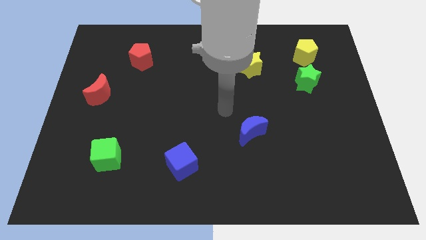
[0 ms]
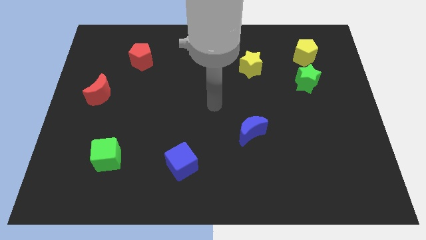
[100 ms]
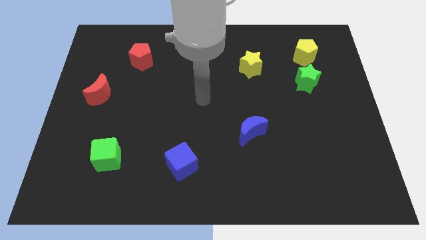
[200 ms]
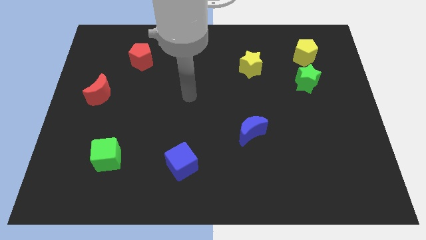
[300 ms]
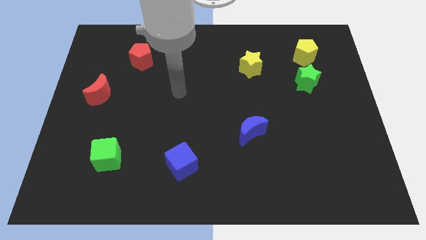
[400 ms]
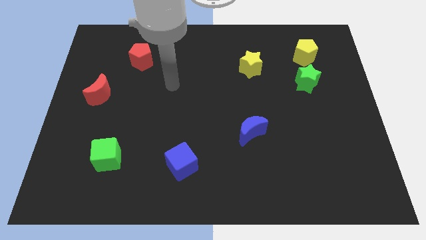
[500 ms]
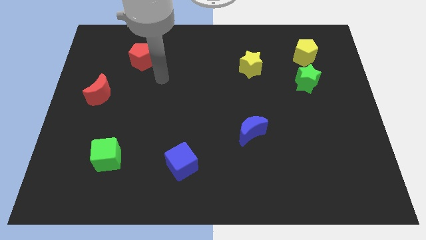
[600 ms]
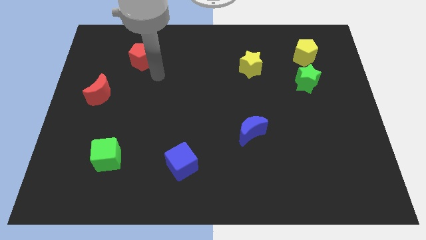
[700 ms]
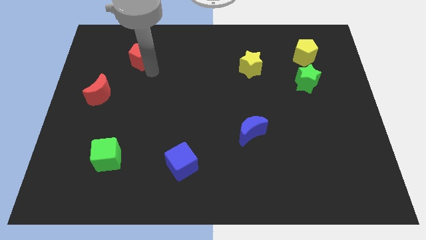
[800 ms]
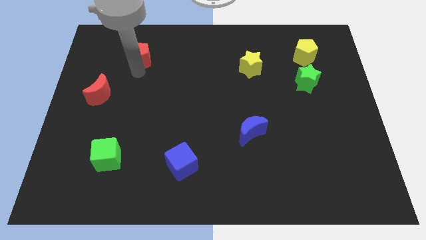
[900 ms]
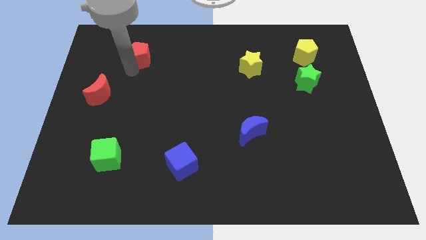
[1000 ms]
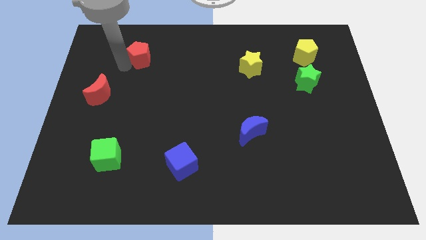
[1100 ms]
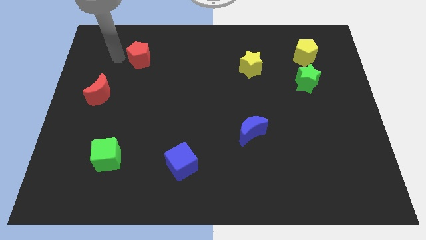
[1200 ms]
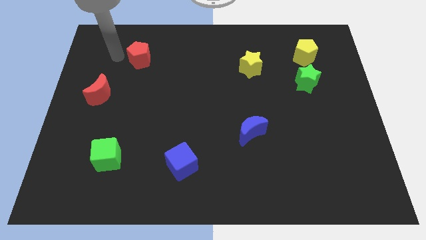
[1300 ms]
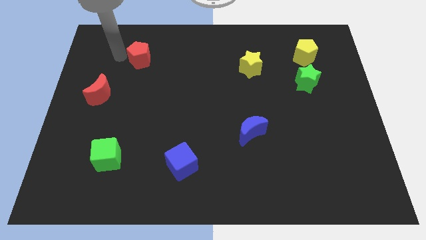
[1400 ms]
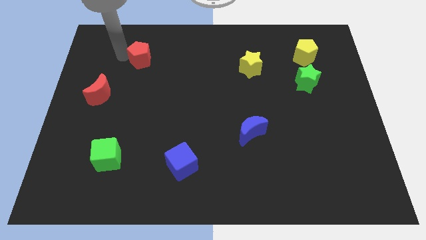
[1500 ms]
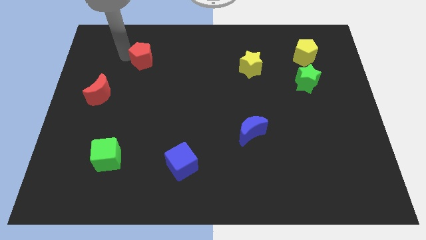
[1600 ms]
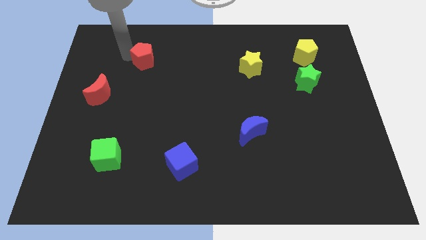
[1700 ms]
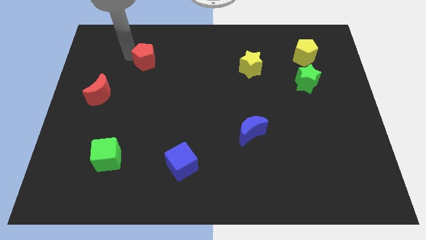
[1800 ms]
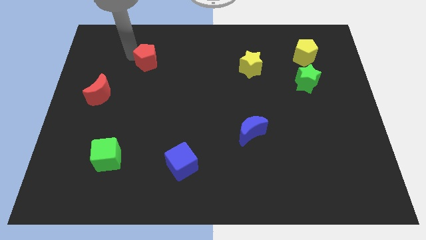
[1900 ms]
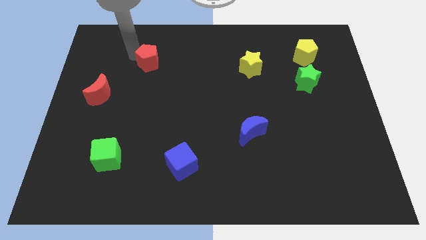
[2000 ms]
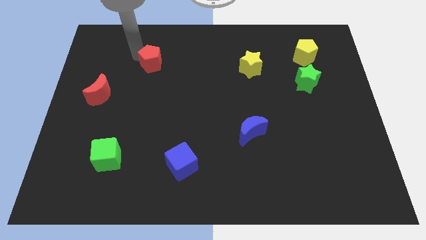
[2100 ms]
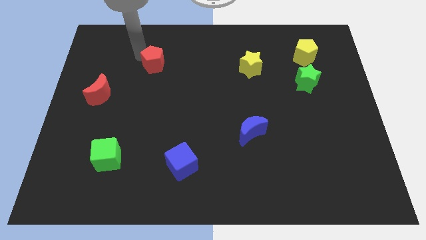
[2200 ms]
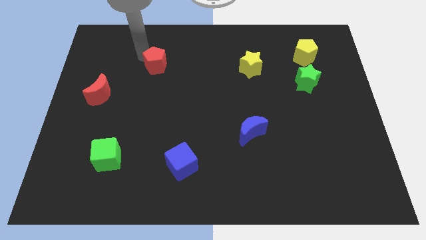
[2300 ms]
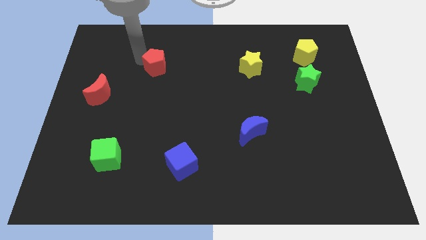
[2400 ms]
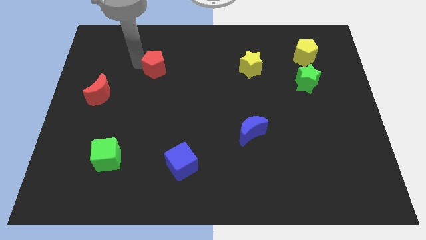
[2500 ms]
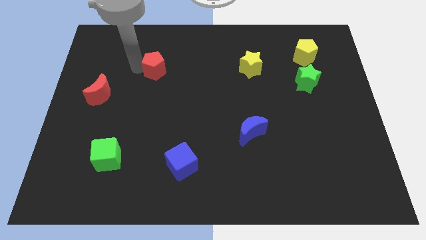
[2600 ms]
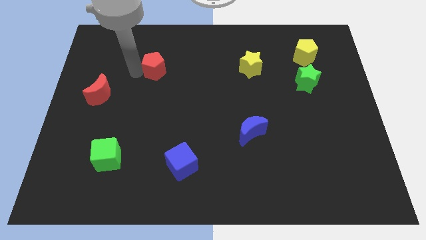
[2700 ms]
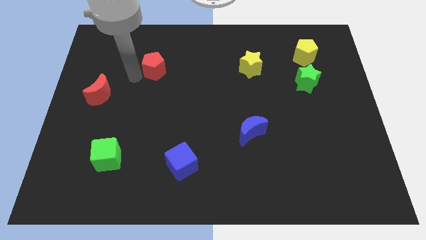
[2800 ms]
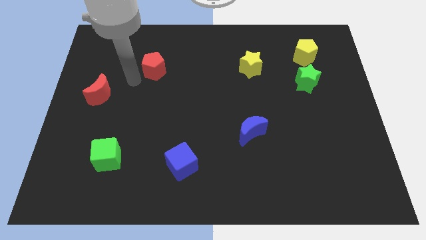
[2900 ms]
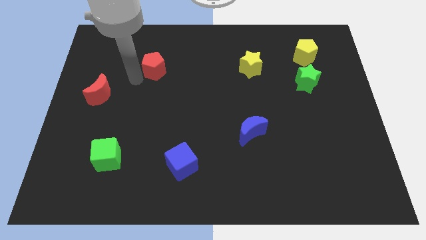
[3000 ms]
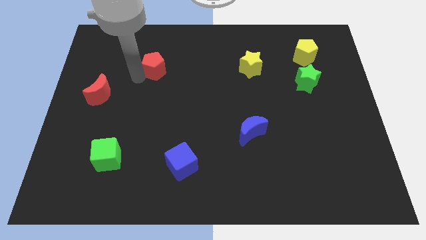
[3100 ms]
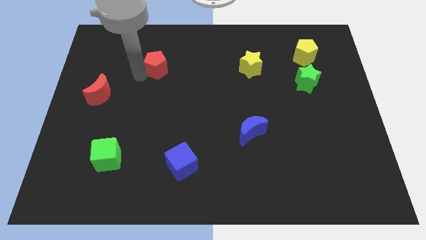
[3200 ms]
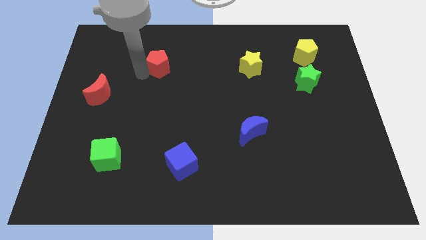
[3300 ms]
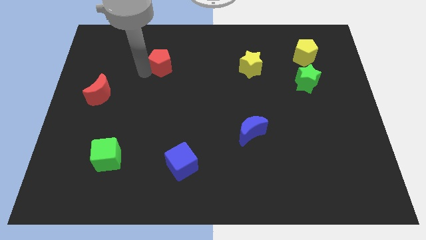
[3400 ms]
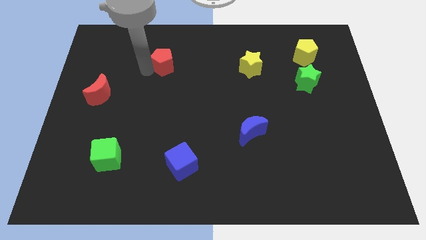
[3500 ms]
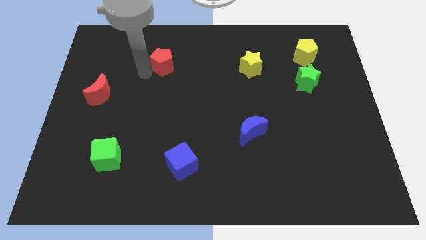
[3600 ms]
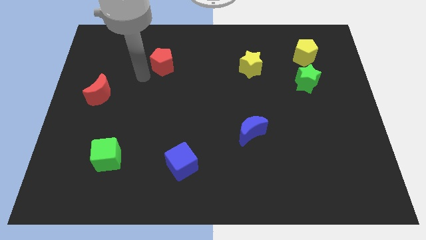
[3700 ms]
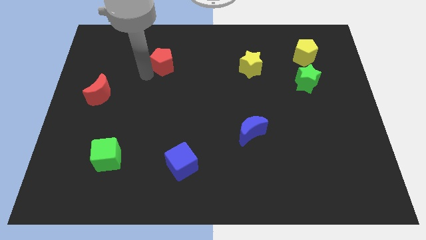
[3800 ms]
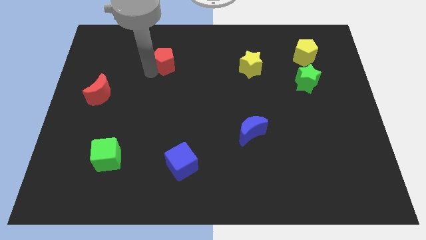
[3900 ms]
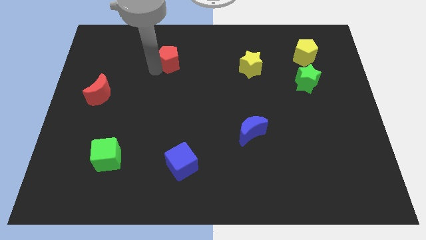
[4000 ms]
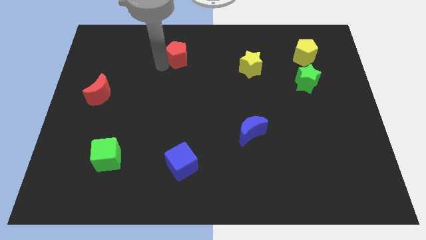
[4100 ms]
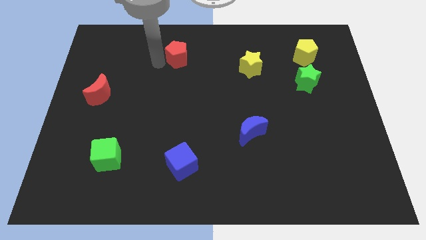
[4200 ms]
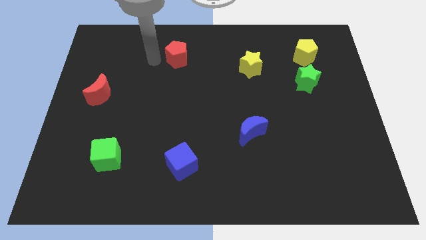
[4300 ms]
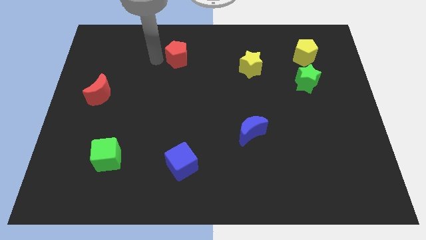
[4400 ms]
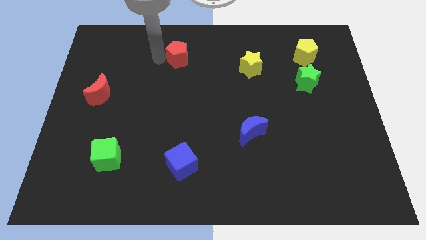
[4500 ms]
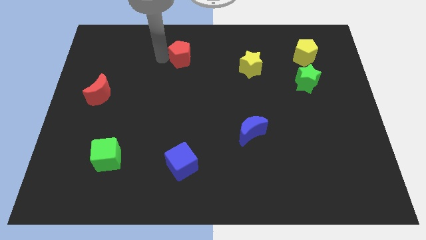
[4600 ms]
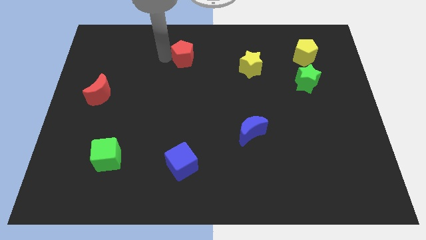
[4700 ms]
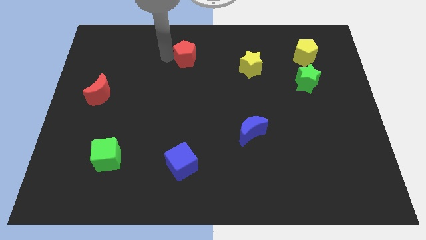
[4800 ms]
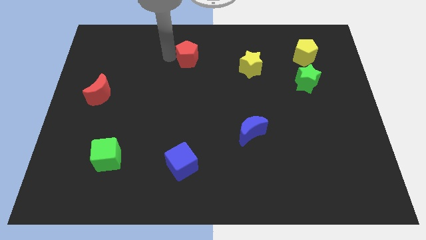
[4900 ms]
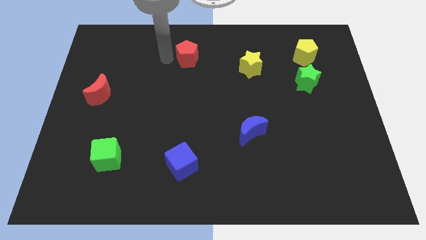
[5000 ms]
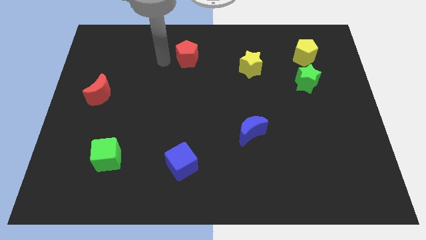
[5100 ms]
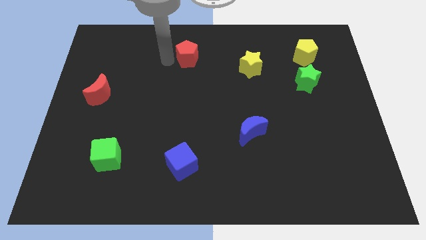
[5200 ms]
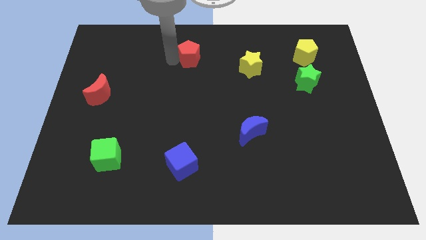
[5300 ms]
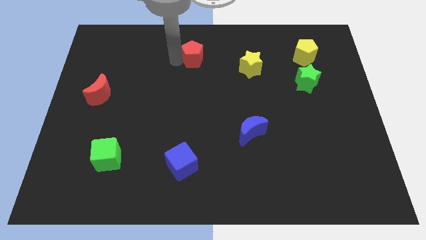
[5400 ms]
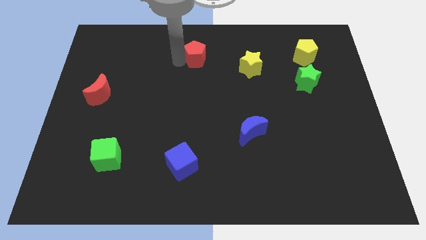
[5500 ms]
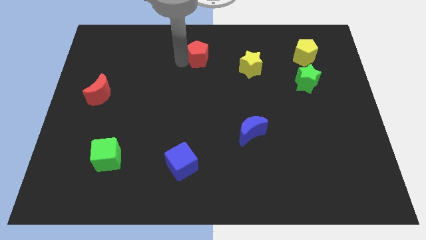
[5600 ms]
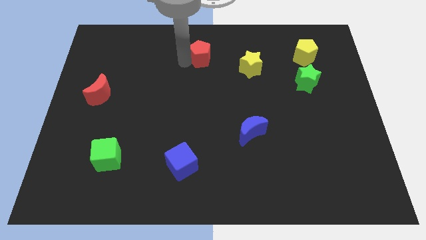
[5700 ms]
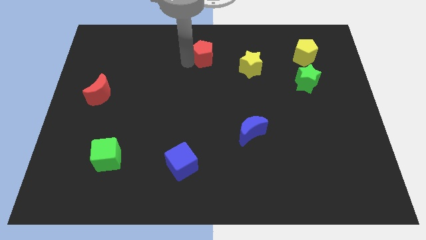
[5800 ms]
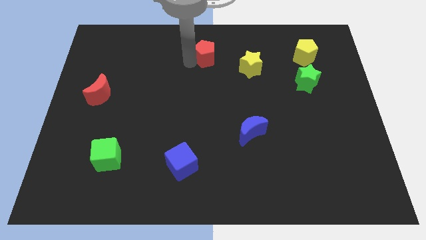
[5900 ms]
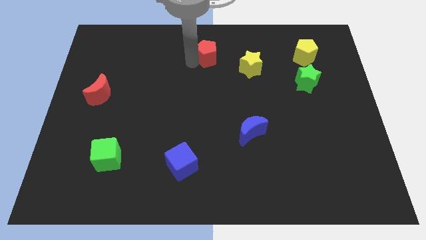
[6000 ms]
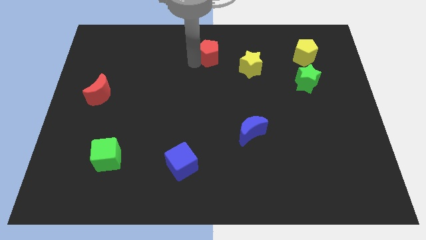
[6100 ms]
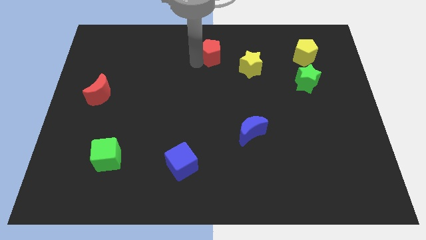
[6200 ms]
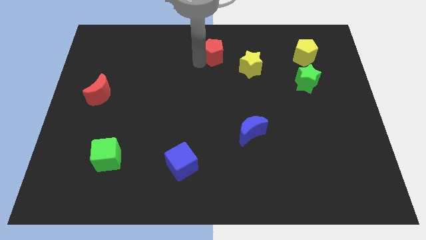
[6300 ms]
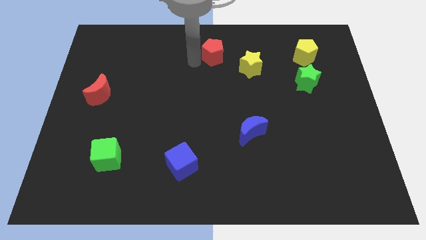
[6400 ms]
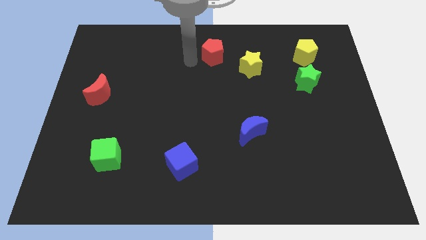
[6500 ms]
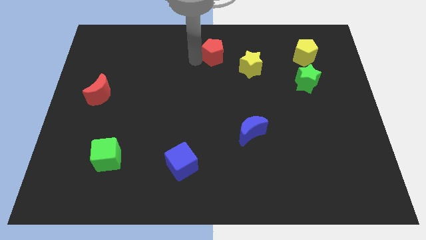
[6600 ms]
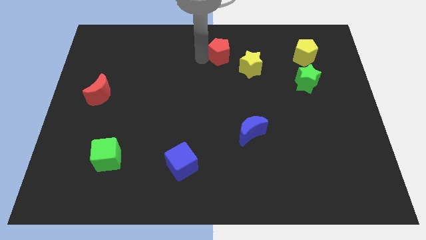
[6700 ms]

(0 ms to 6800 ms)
slide the red pentagon to the right

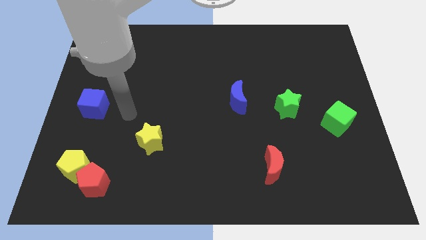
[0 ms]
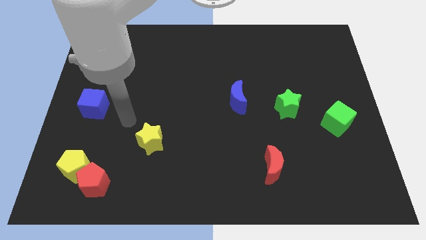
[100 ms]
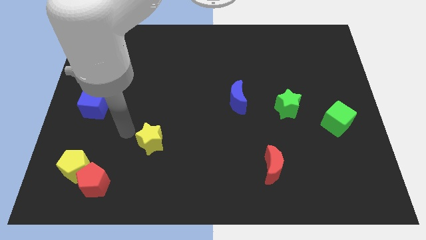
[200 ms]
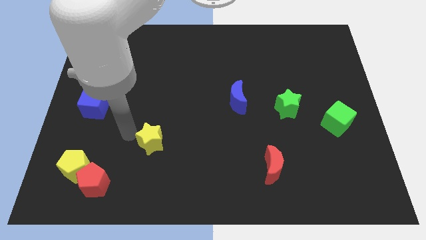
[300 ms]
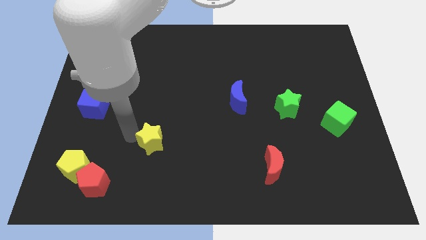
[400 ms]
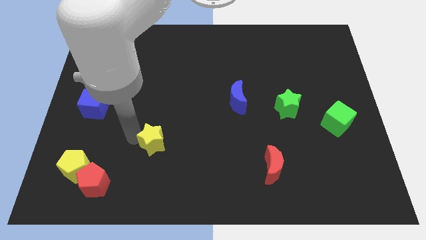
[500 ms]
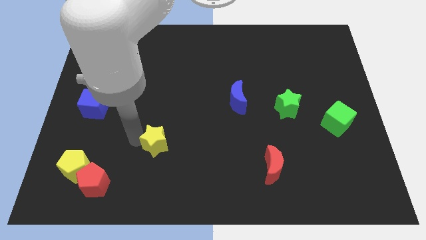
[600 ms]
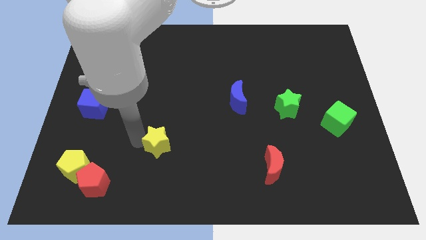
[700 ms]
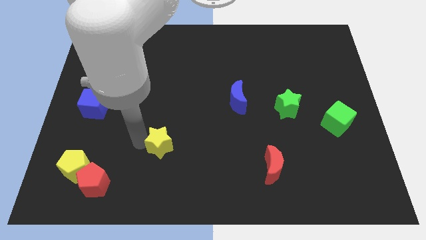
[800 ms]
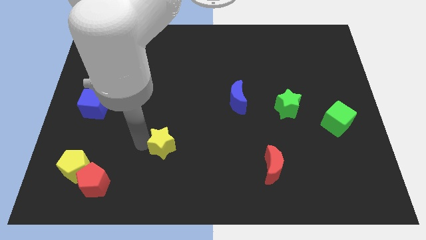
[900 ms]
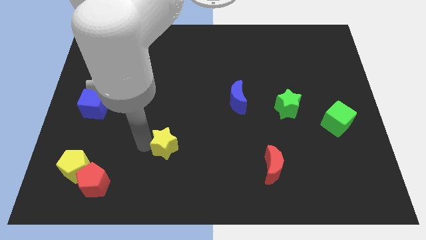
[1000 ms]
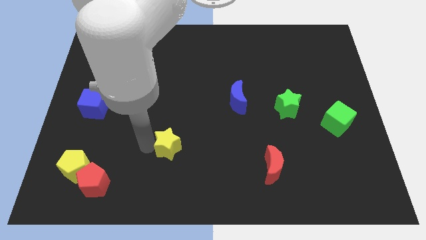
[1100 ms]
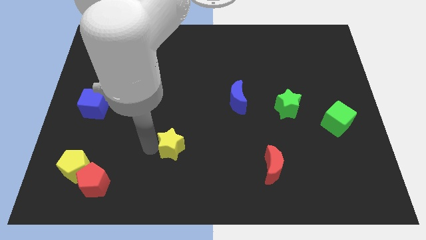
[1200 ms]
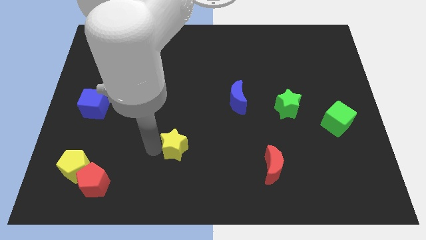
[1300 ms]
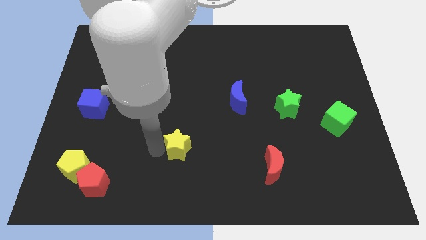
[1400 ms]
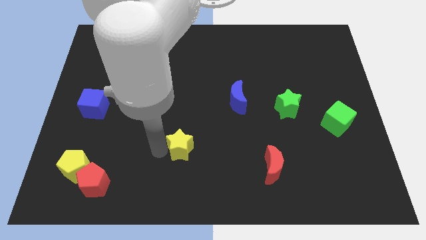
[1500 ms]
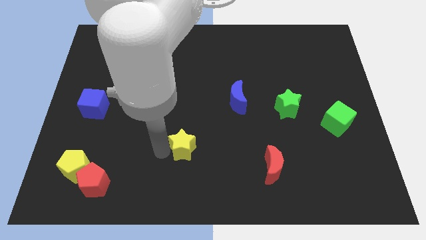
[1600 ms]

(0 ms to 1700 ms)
push the yellow star to the right a little
